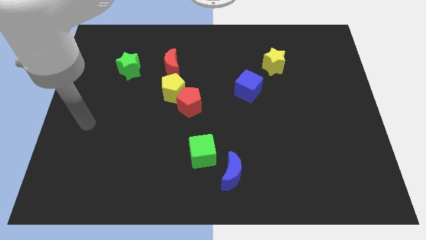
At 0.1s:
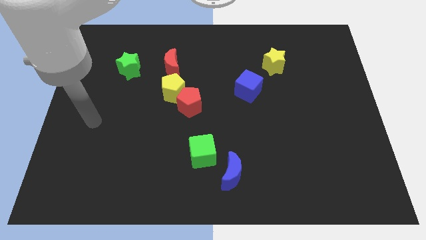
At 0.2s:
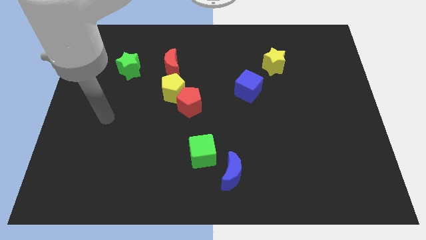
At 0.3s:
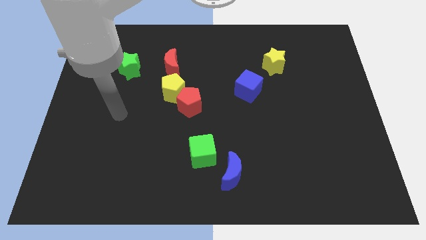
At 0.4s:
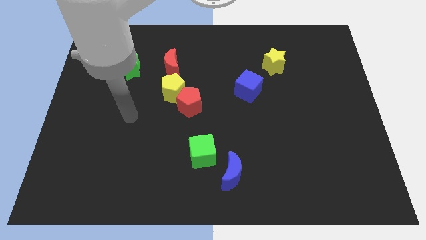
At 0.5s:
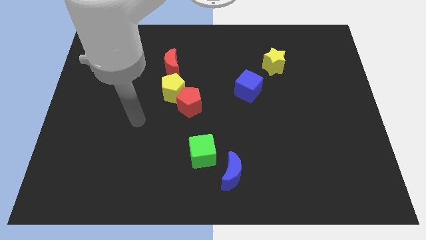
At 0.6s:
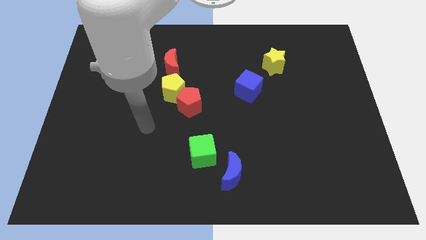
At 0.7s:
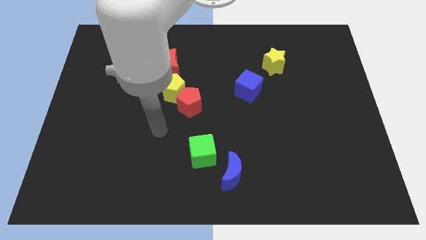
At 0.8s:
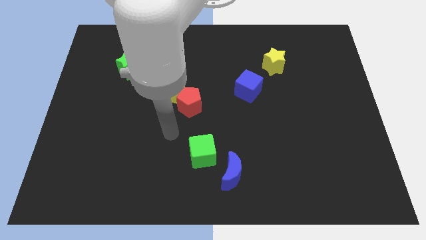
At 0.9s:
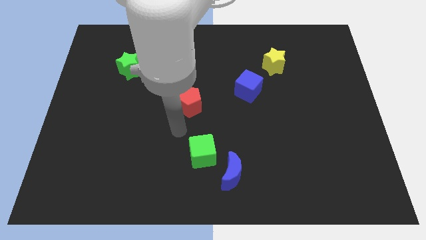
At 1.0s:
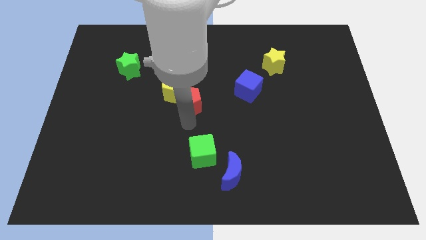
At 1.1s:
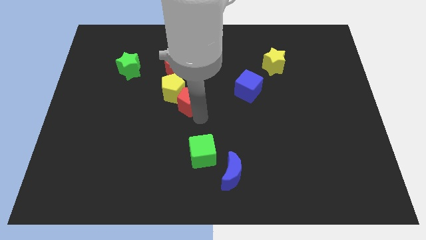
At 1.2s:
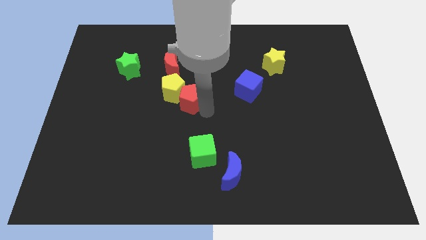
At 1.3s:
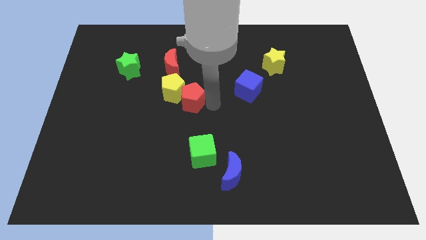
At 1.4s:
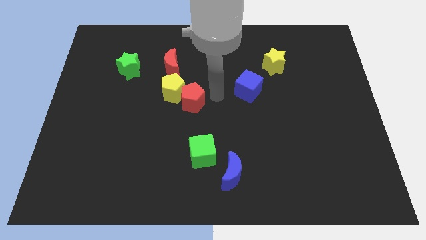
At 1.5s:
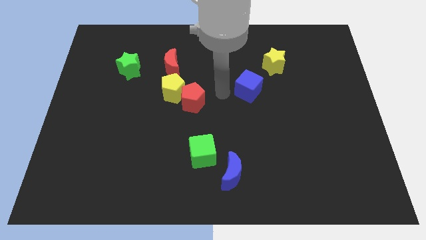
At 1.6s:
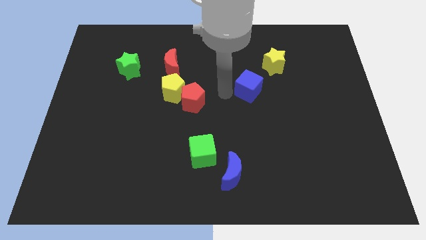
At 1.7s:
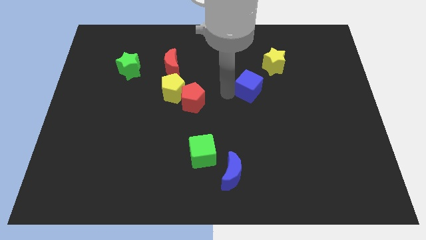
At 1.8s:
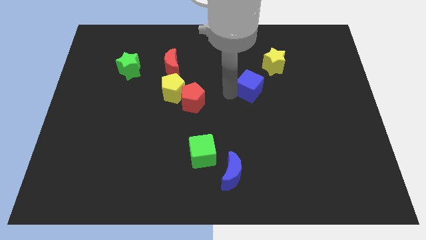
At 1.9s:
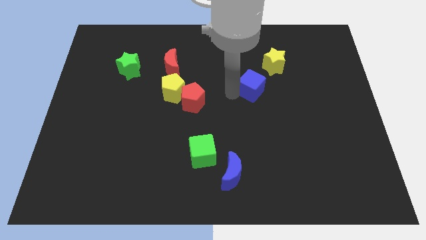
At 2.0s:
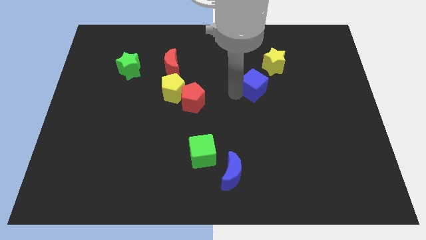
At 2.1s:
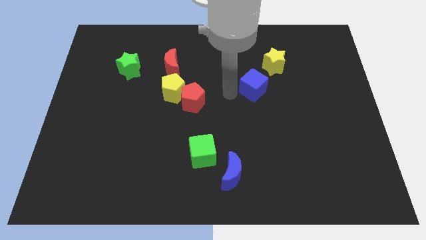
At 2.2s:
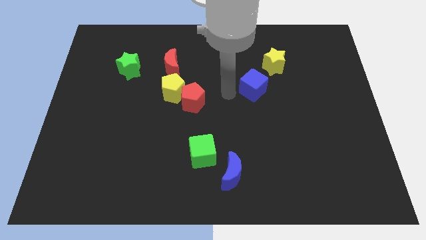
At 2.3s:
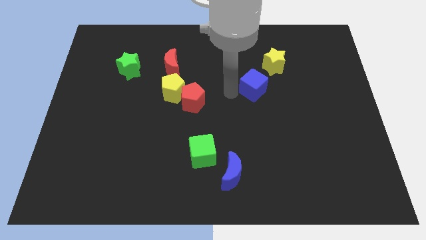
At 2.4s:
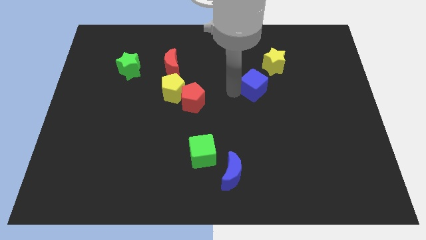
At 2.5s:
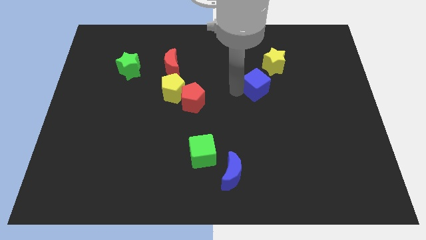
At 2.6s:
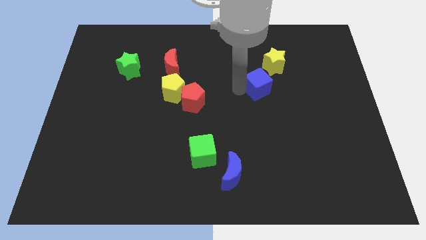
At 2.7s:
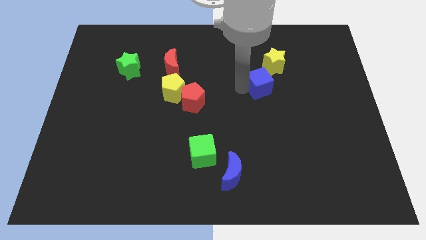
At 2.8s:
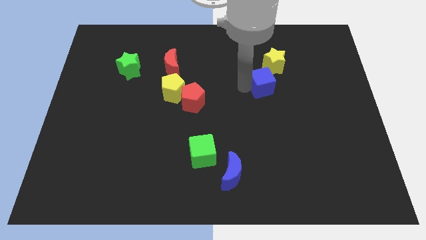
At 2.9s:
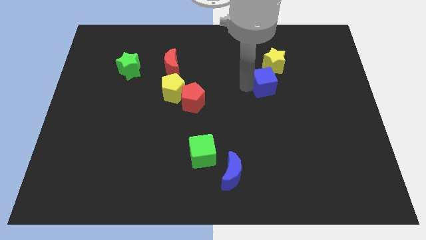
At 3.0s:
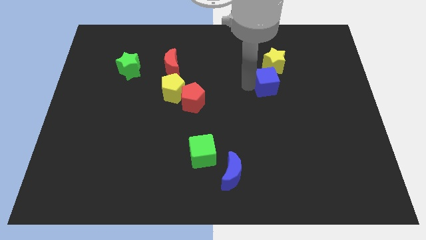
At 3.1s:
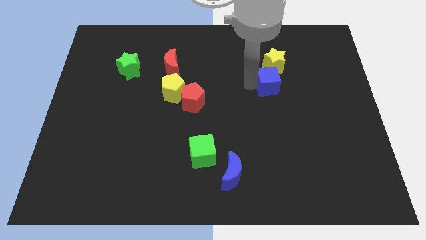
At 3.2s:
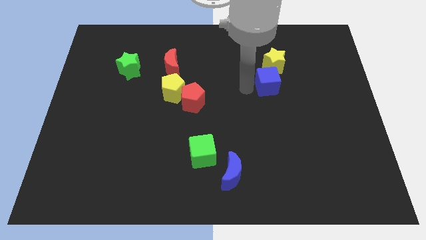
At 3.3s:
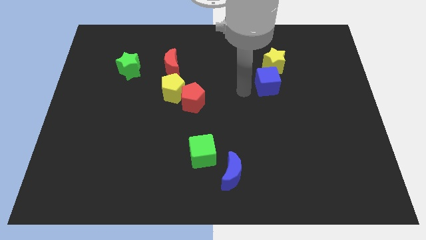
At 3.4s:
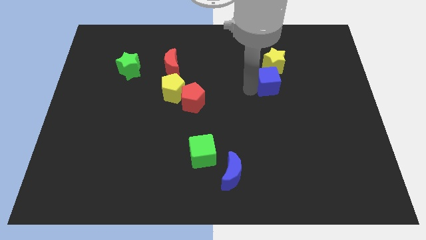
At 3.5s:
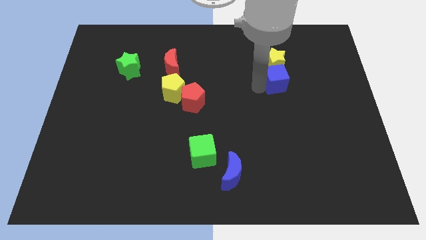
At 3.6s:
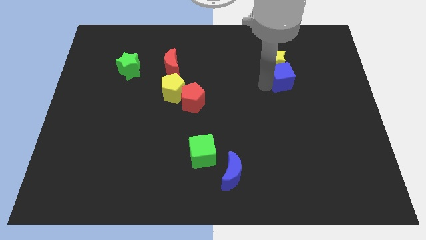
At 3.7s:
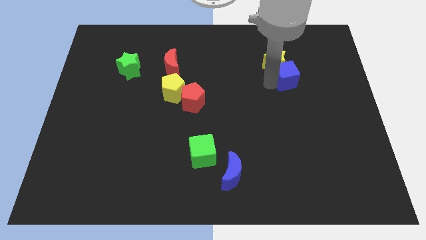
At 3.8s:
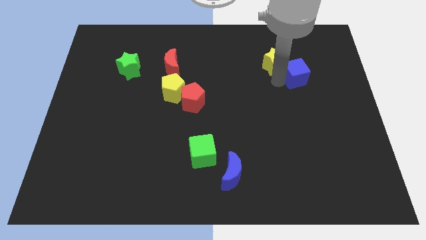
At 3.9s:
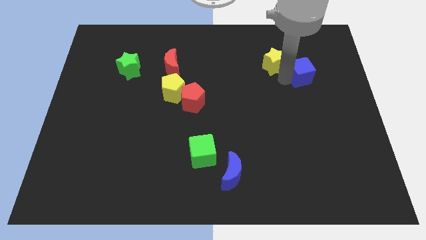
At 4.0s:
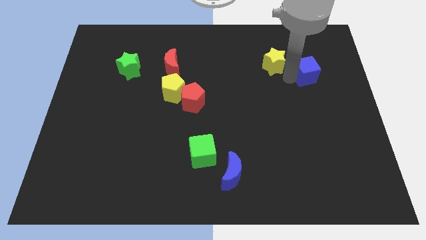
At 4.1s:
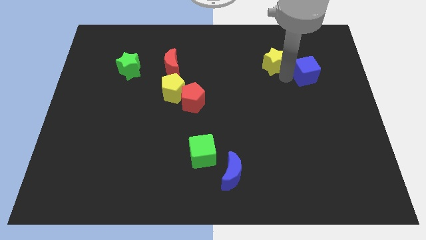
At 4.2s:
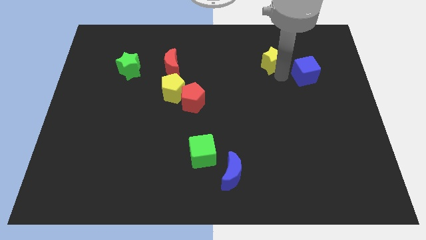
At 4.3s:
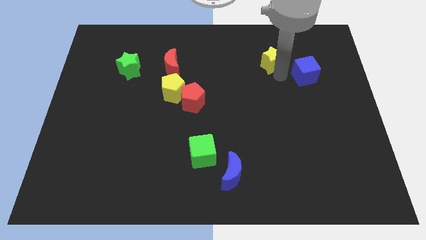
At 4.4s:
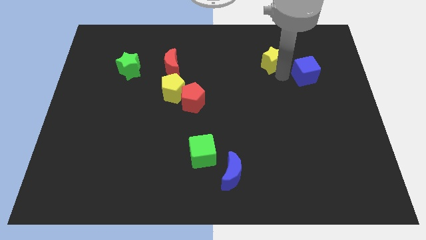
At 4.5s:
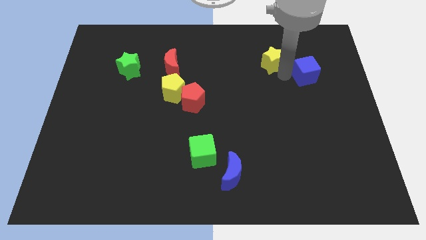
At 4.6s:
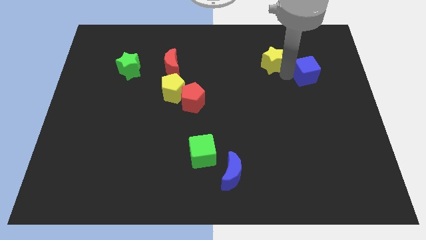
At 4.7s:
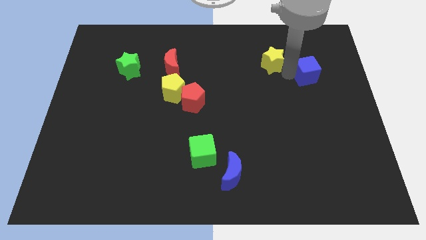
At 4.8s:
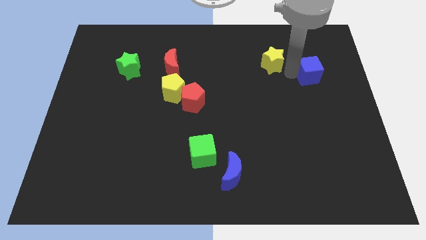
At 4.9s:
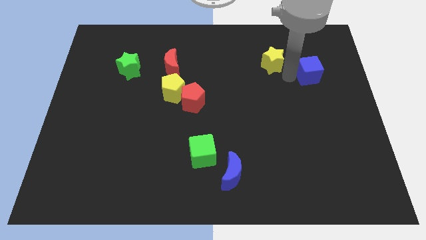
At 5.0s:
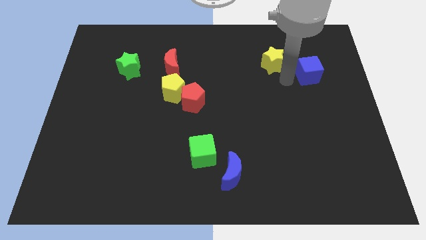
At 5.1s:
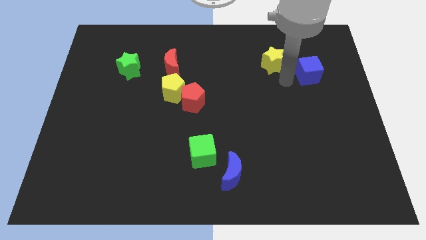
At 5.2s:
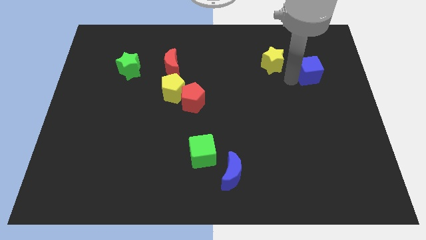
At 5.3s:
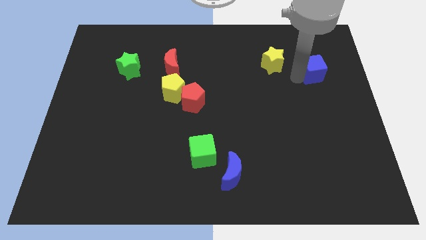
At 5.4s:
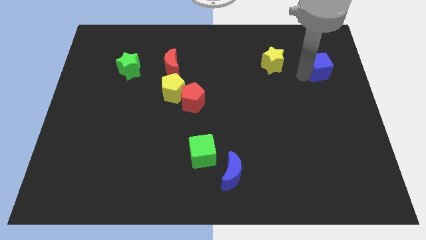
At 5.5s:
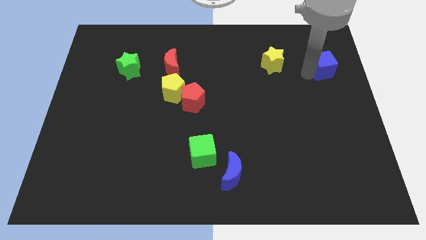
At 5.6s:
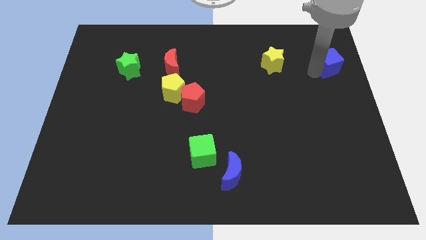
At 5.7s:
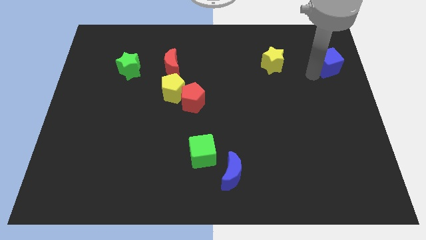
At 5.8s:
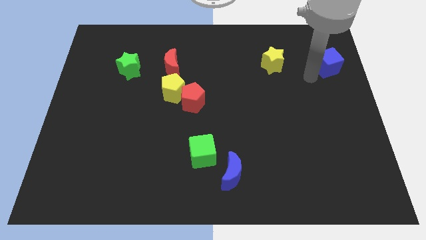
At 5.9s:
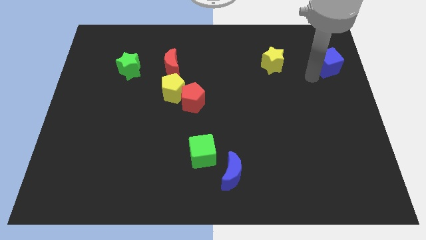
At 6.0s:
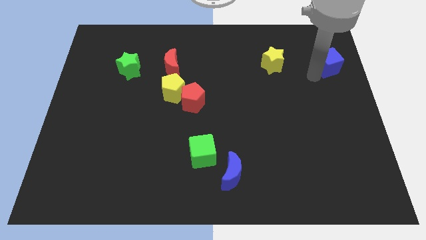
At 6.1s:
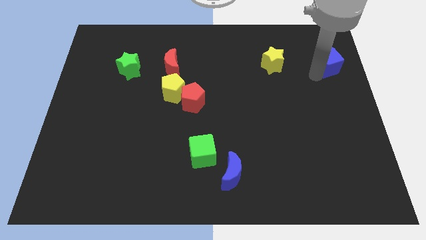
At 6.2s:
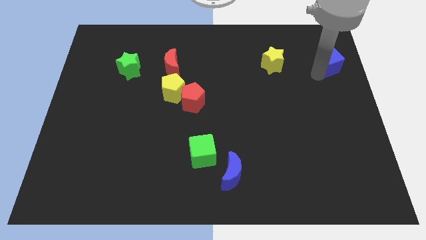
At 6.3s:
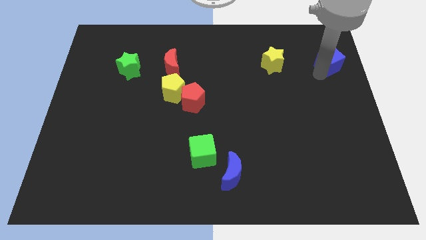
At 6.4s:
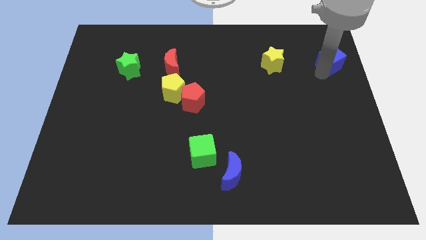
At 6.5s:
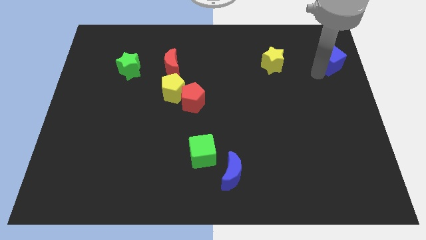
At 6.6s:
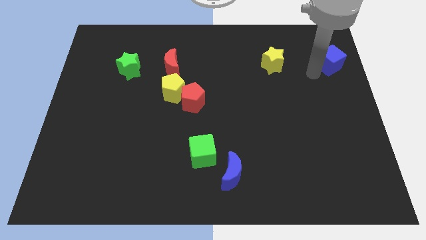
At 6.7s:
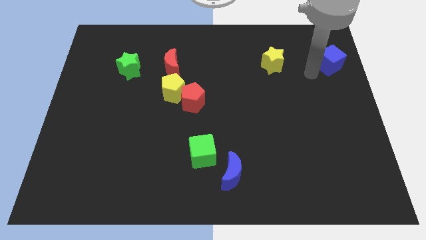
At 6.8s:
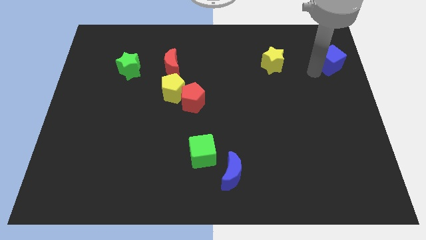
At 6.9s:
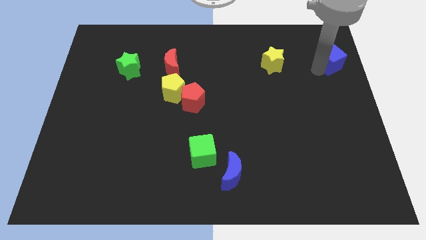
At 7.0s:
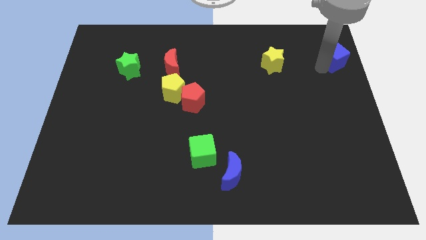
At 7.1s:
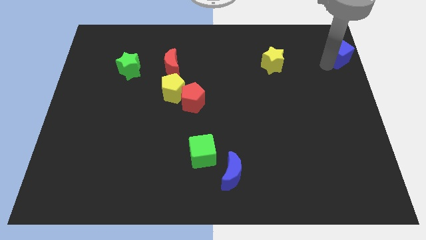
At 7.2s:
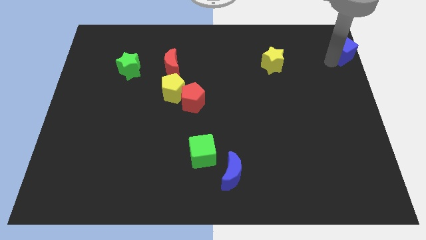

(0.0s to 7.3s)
push the blue cube to the top right of the board

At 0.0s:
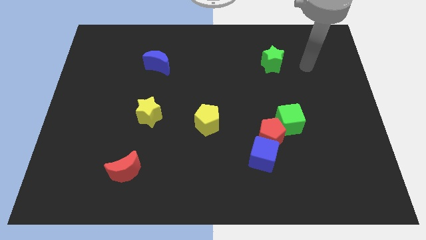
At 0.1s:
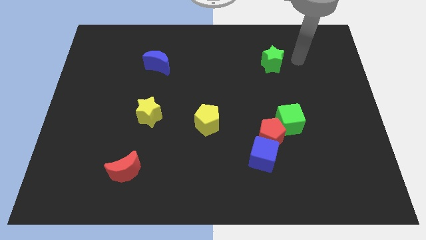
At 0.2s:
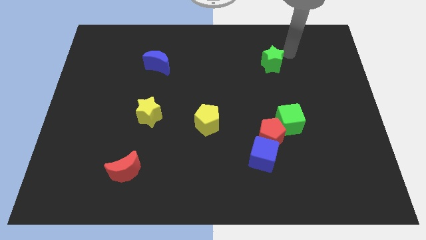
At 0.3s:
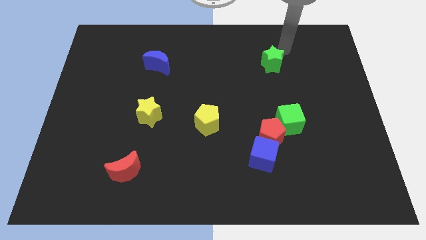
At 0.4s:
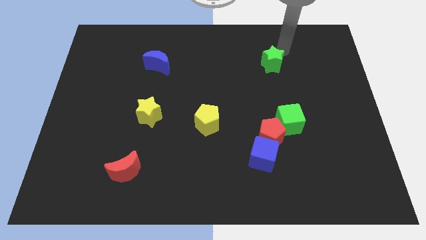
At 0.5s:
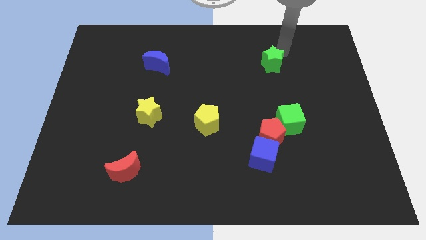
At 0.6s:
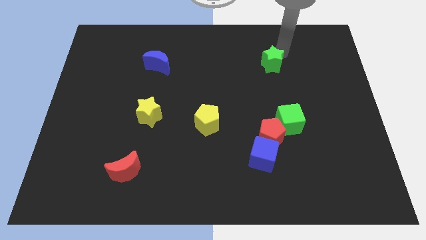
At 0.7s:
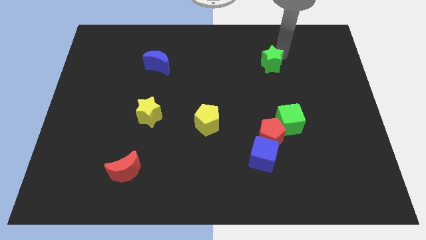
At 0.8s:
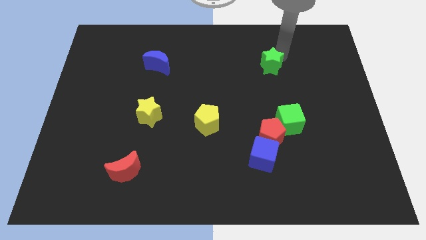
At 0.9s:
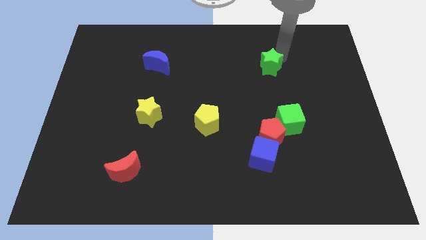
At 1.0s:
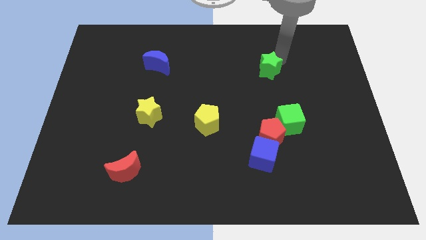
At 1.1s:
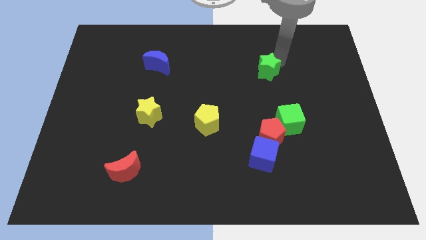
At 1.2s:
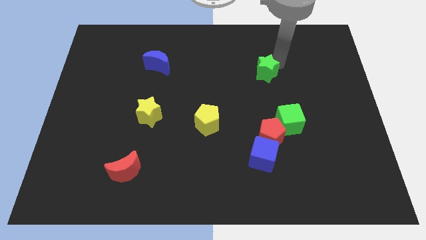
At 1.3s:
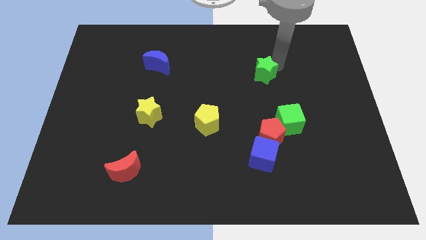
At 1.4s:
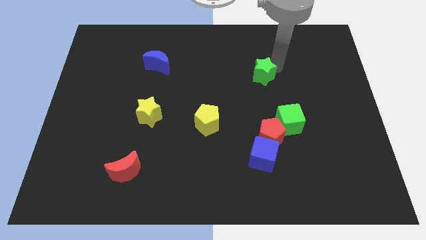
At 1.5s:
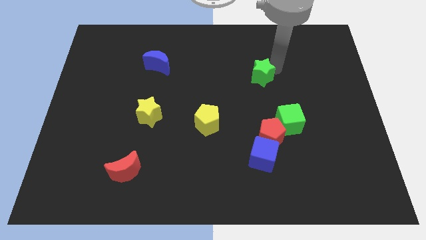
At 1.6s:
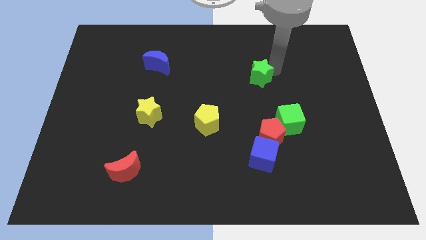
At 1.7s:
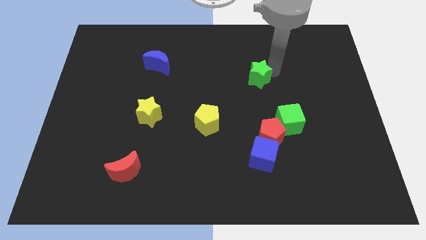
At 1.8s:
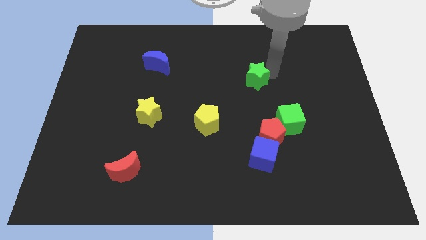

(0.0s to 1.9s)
slide the green star to the middle
